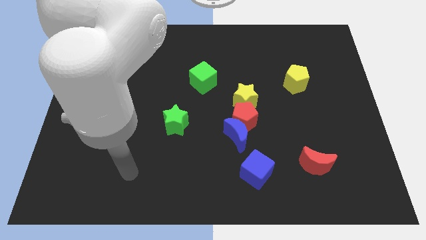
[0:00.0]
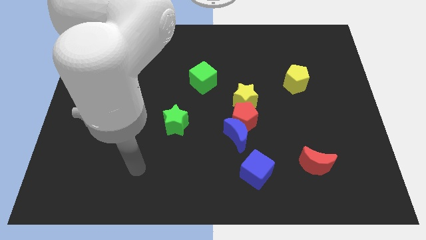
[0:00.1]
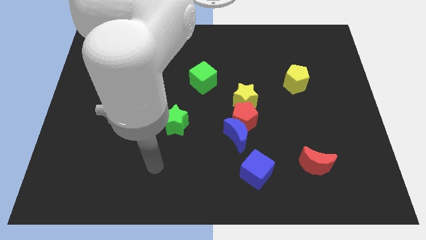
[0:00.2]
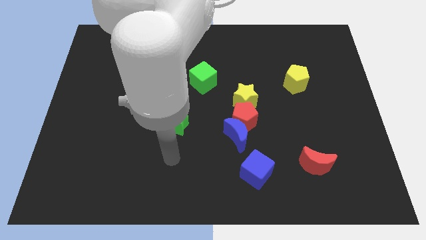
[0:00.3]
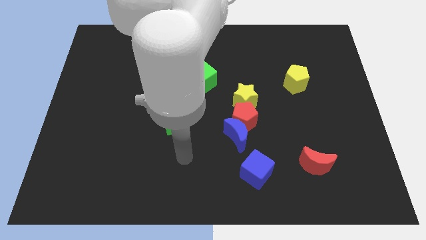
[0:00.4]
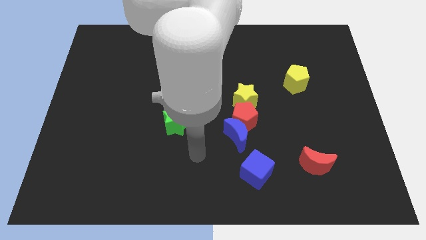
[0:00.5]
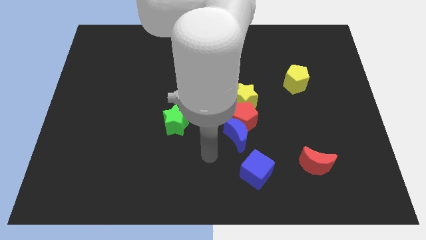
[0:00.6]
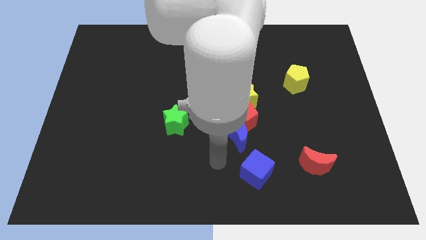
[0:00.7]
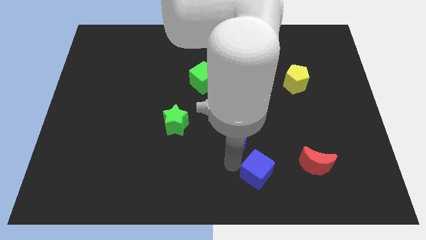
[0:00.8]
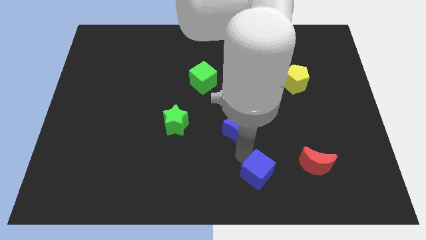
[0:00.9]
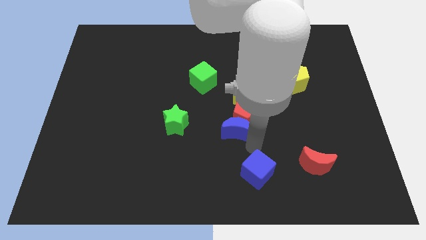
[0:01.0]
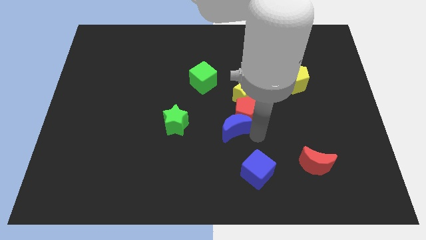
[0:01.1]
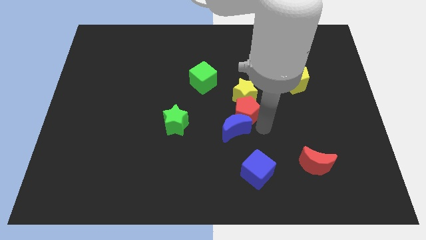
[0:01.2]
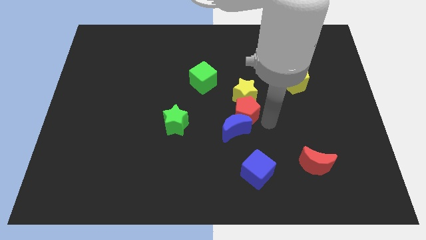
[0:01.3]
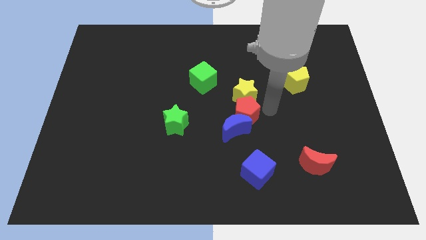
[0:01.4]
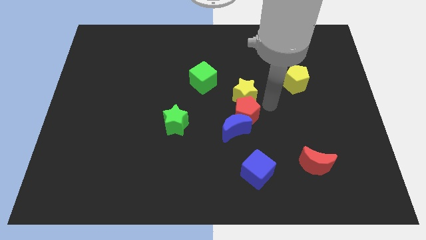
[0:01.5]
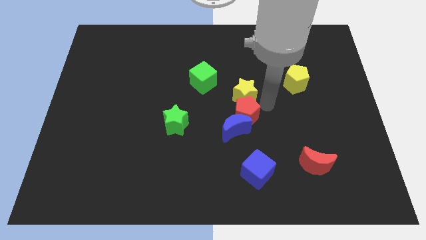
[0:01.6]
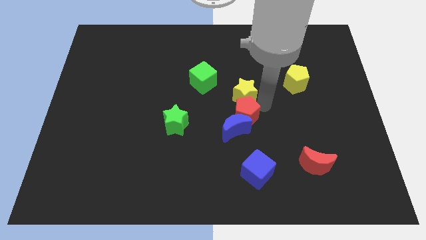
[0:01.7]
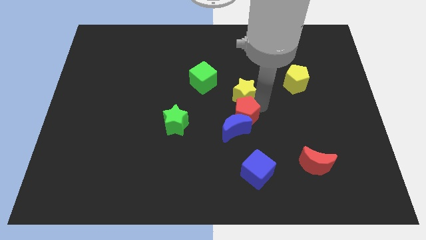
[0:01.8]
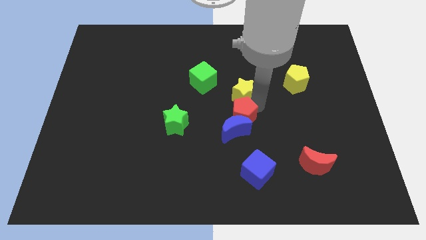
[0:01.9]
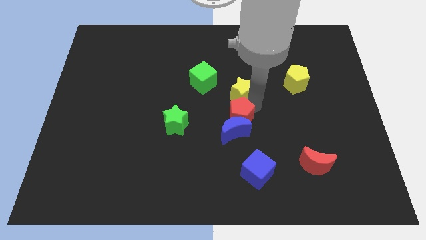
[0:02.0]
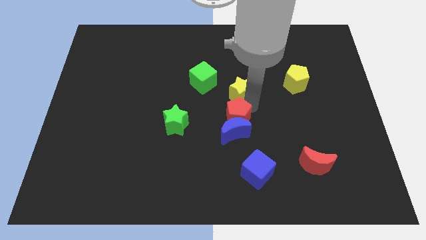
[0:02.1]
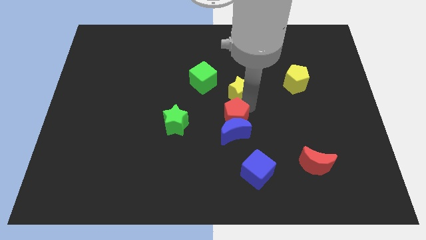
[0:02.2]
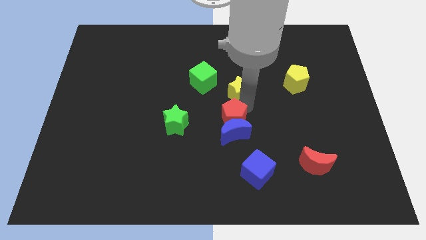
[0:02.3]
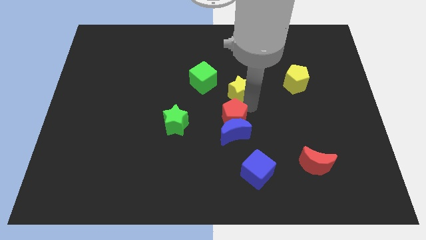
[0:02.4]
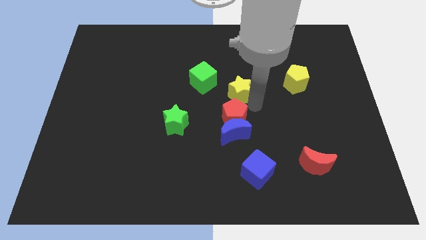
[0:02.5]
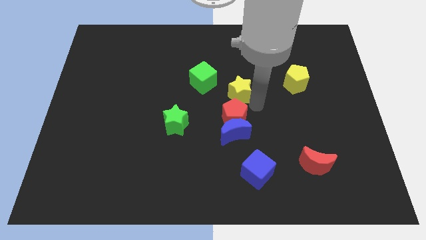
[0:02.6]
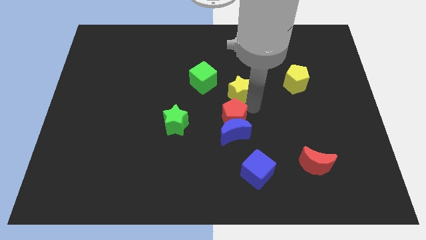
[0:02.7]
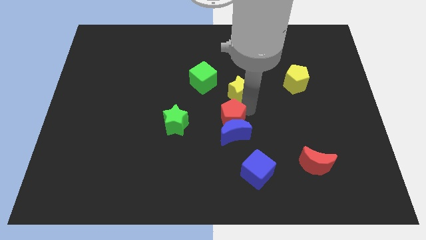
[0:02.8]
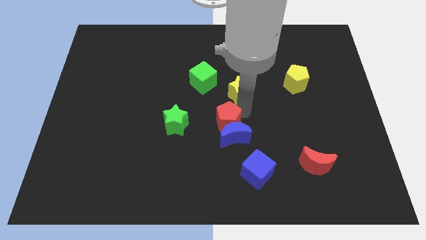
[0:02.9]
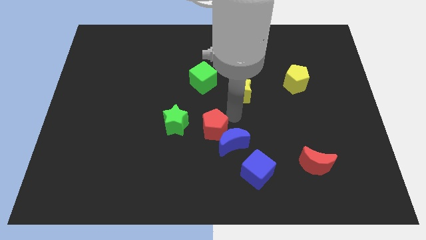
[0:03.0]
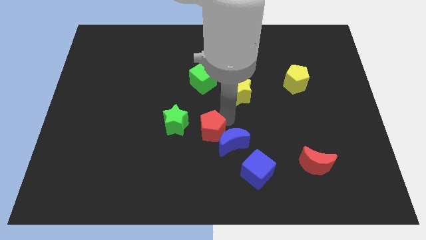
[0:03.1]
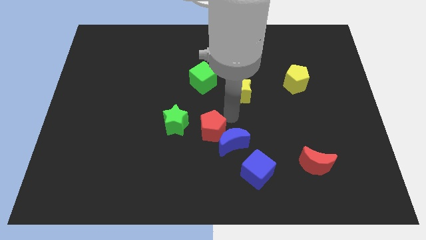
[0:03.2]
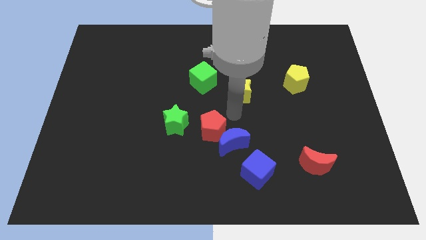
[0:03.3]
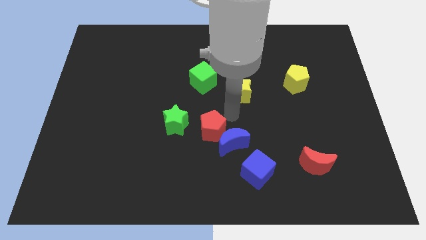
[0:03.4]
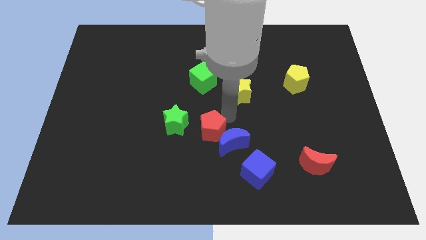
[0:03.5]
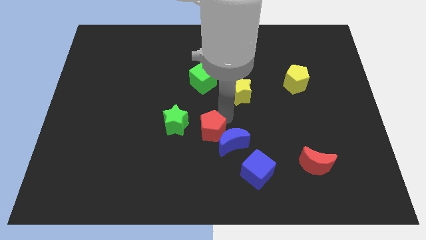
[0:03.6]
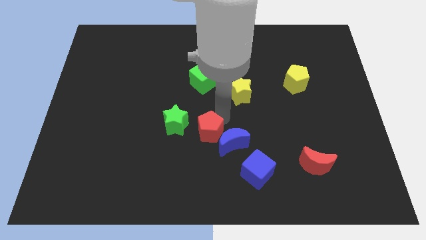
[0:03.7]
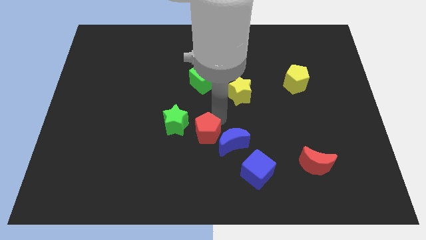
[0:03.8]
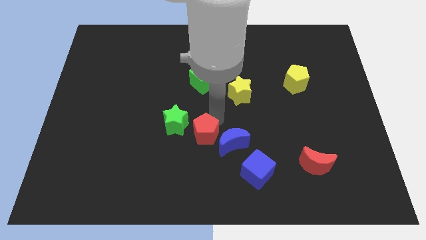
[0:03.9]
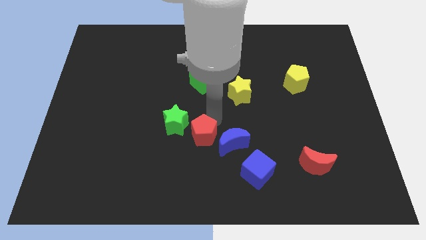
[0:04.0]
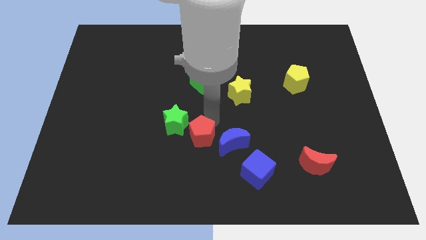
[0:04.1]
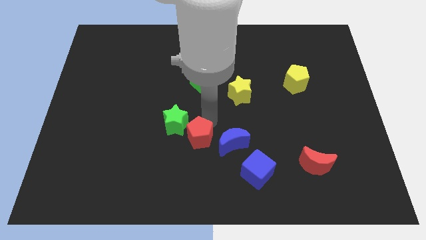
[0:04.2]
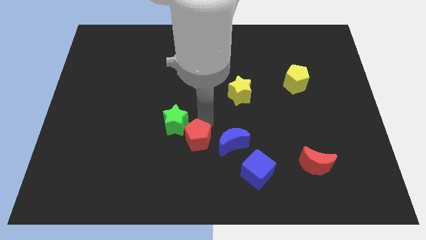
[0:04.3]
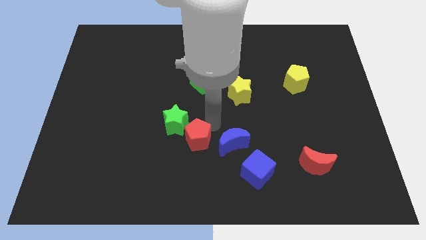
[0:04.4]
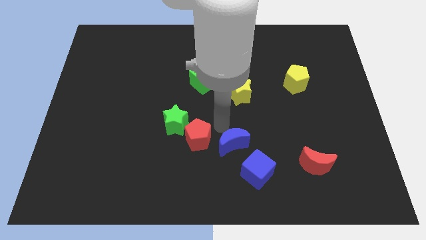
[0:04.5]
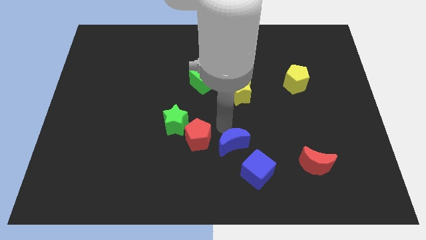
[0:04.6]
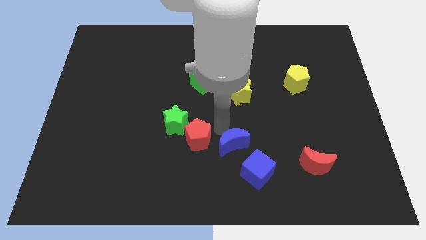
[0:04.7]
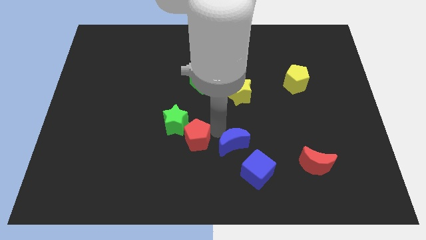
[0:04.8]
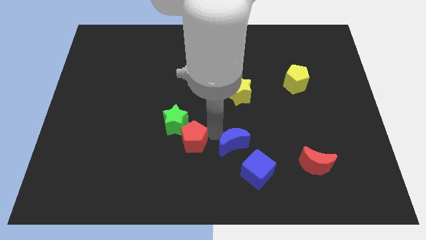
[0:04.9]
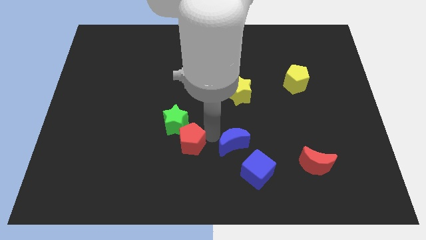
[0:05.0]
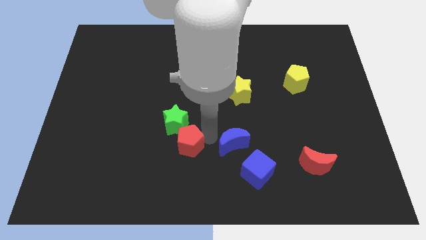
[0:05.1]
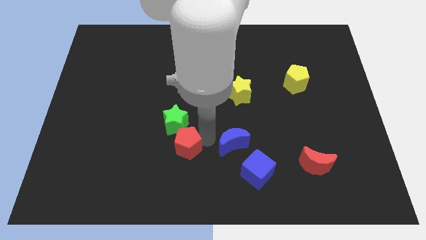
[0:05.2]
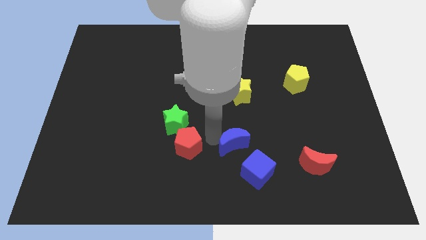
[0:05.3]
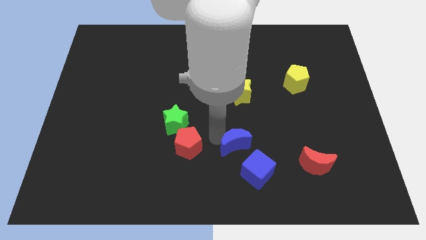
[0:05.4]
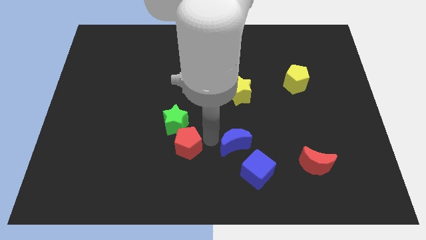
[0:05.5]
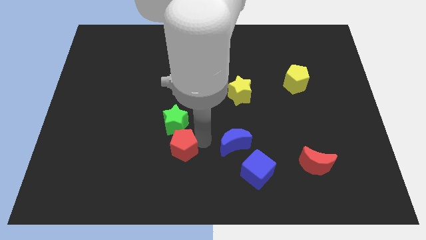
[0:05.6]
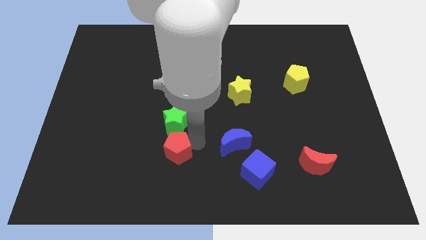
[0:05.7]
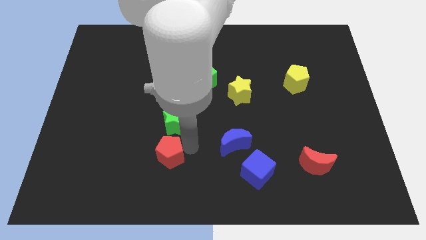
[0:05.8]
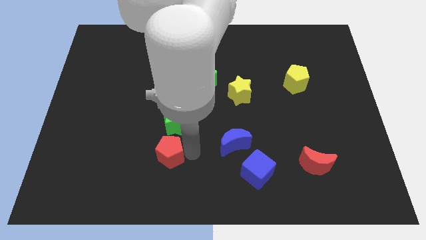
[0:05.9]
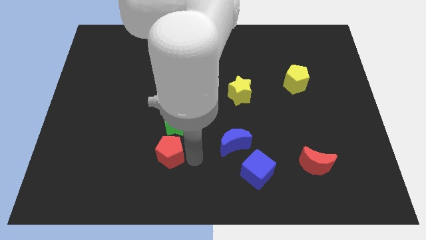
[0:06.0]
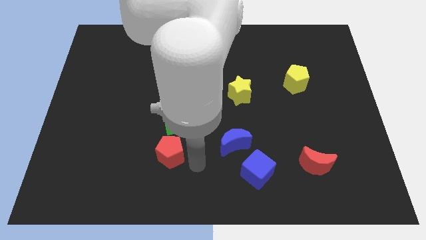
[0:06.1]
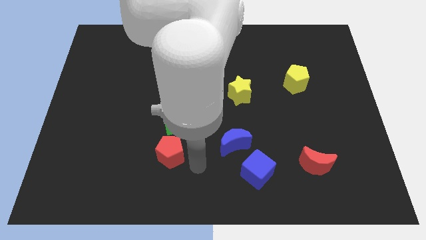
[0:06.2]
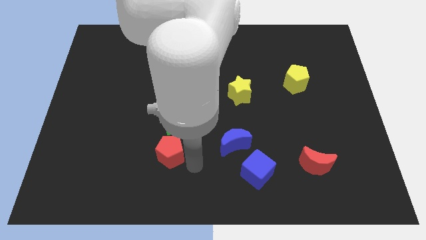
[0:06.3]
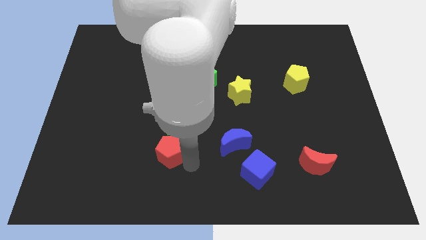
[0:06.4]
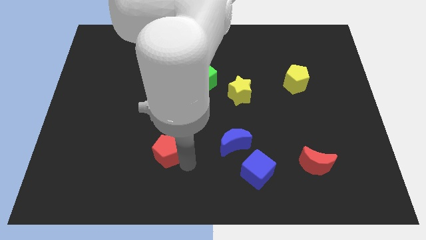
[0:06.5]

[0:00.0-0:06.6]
move the red pentagon to the bottom left side of the green star
